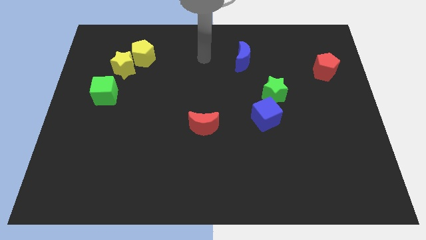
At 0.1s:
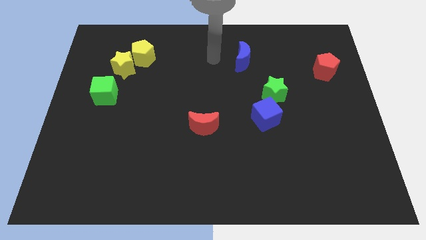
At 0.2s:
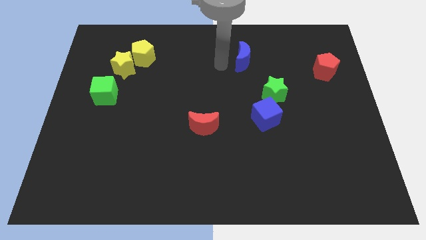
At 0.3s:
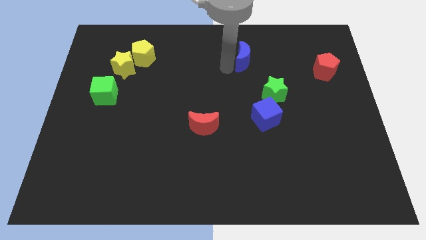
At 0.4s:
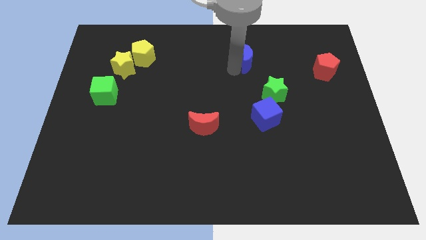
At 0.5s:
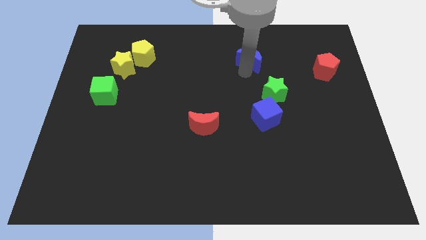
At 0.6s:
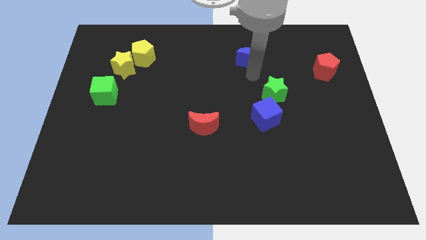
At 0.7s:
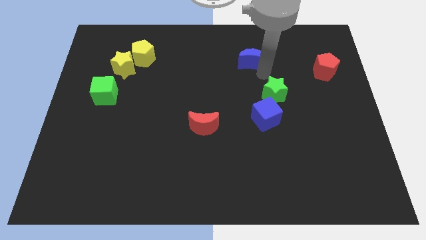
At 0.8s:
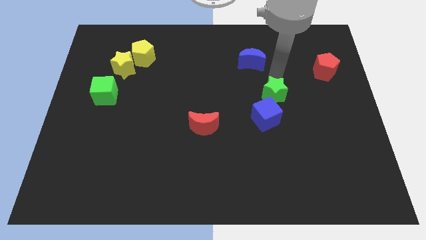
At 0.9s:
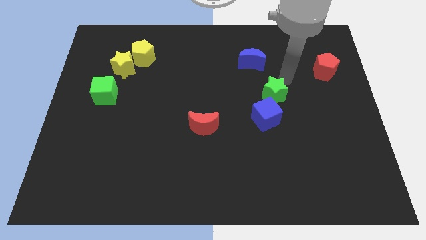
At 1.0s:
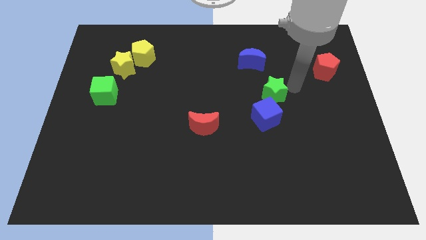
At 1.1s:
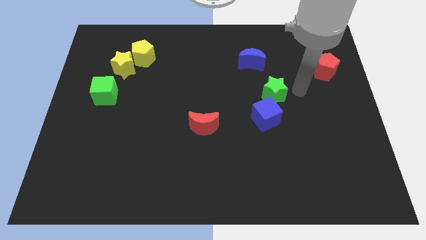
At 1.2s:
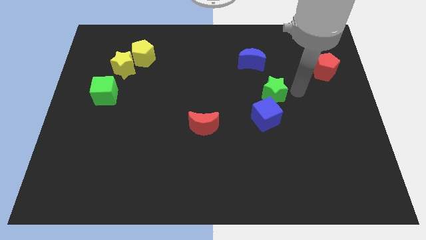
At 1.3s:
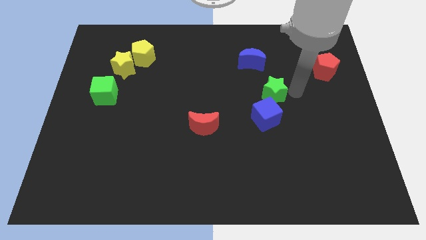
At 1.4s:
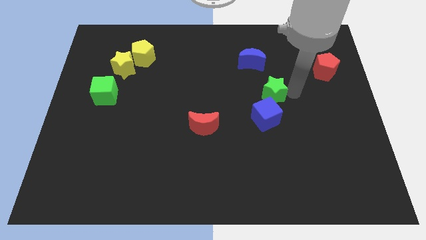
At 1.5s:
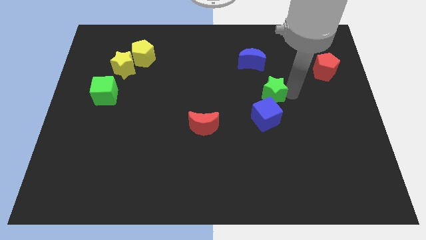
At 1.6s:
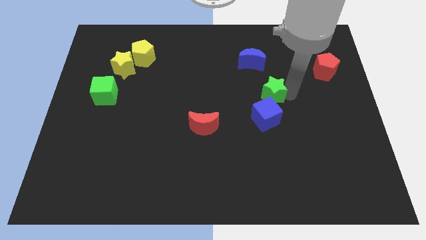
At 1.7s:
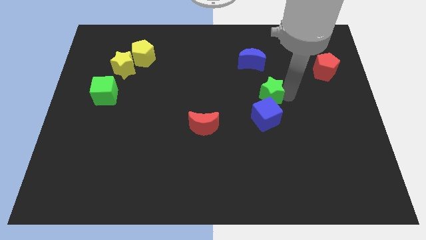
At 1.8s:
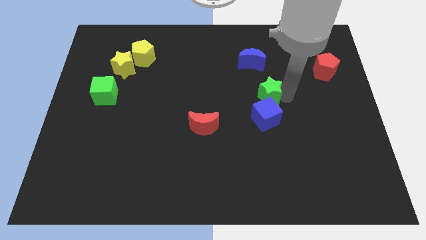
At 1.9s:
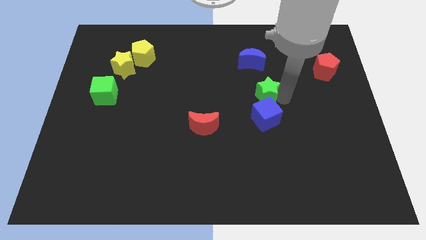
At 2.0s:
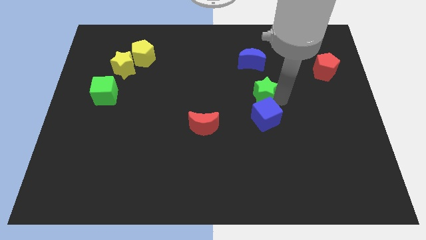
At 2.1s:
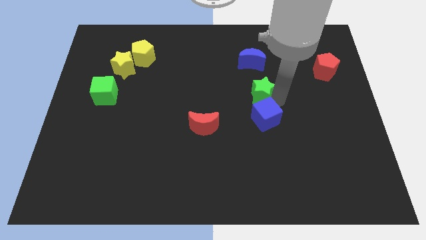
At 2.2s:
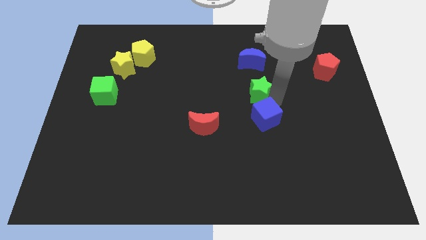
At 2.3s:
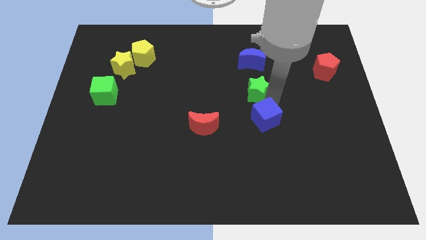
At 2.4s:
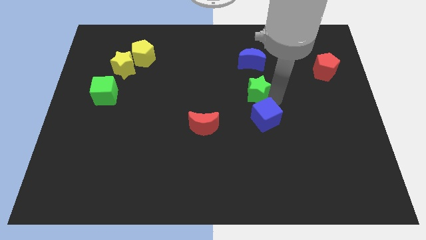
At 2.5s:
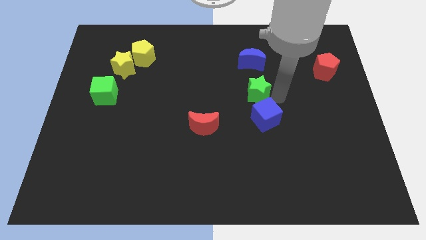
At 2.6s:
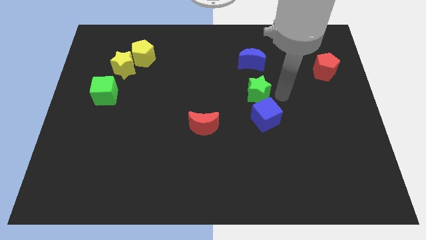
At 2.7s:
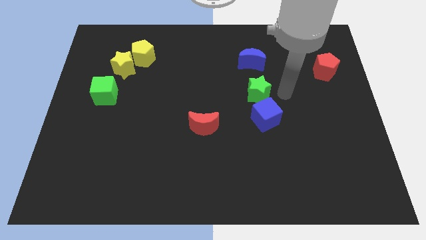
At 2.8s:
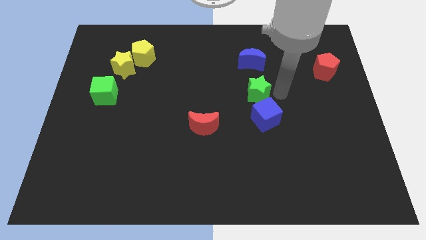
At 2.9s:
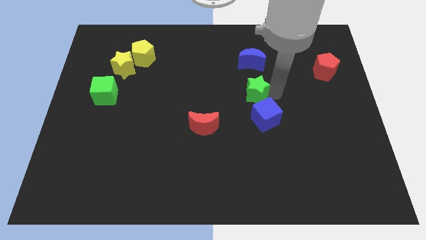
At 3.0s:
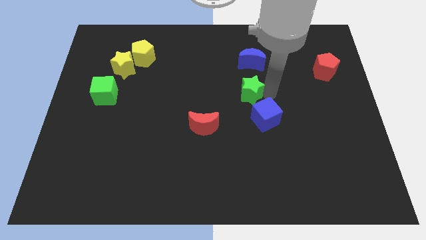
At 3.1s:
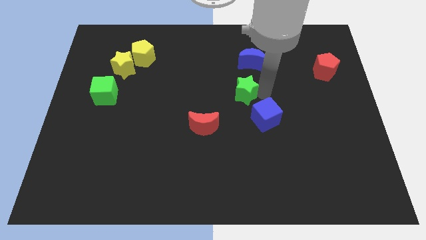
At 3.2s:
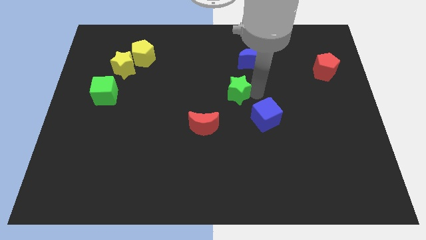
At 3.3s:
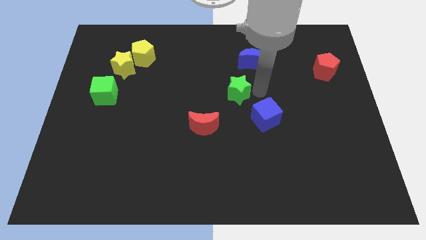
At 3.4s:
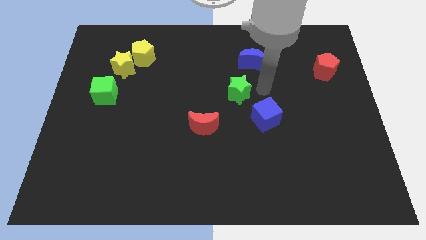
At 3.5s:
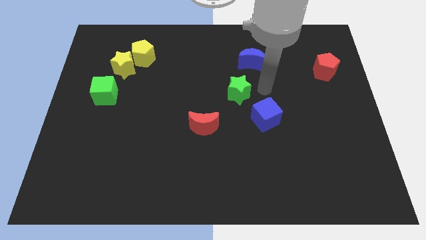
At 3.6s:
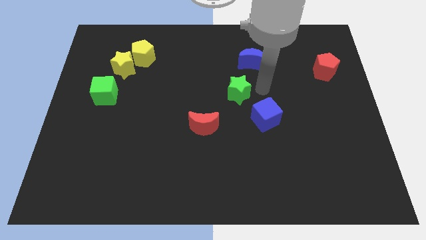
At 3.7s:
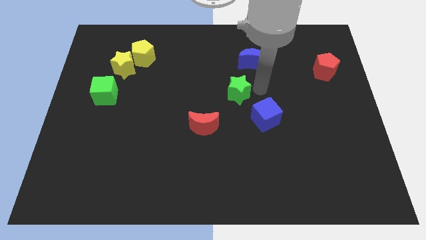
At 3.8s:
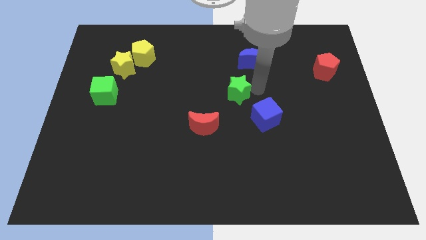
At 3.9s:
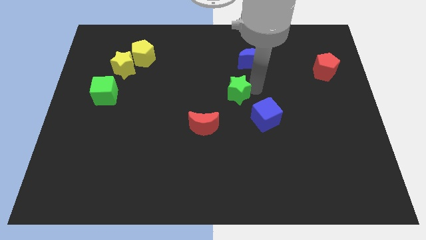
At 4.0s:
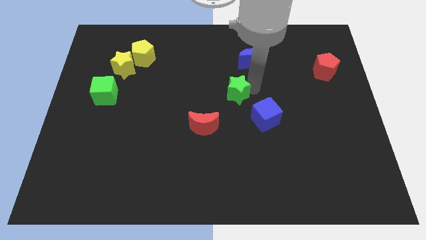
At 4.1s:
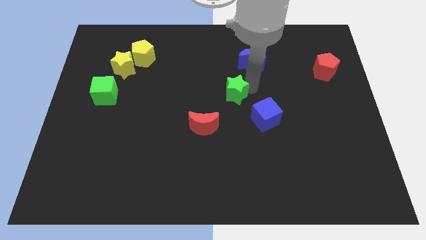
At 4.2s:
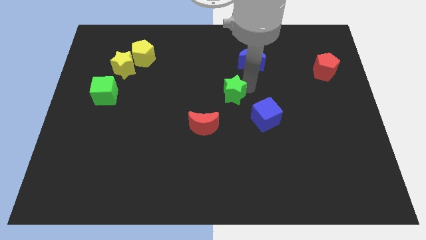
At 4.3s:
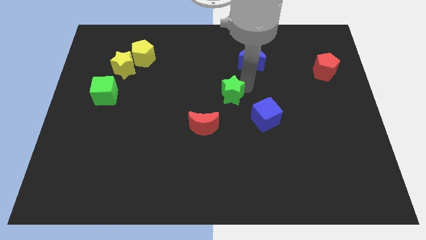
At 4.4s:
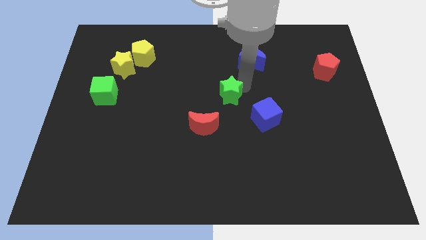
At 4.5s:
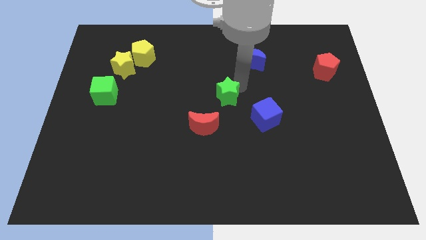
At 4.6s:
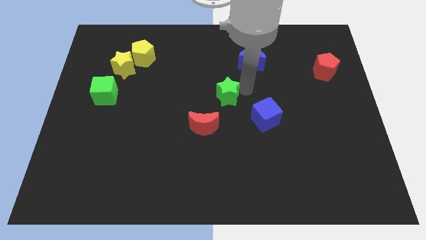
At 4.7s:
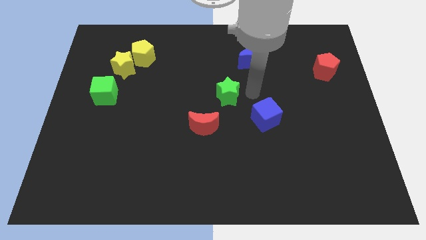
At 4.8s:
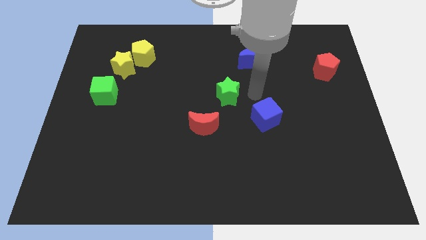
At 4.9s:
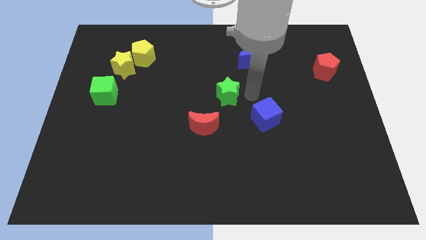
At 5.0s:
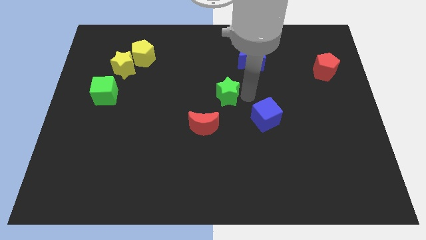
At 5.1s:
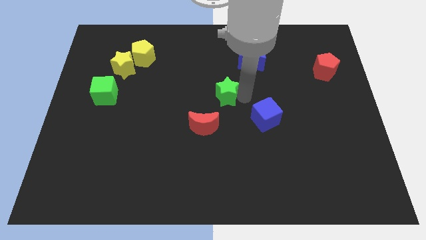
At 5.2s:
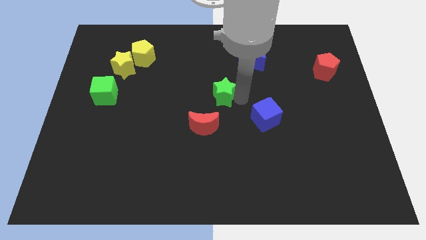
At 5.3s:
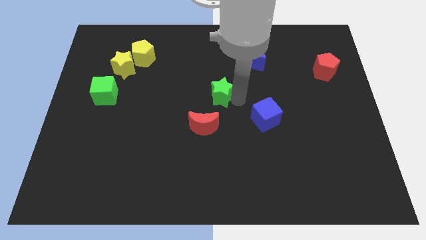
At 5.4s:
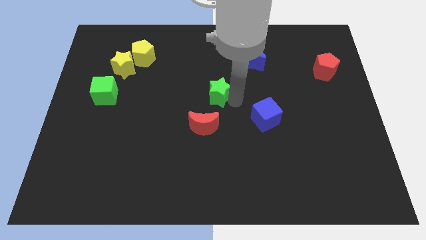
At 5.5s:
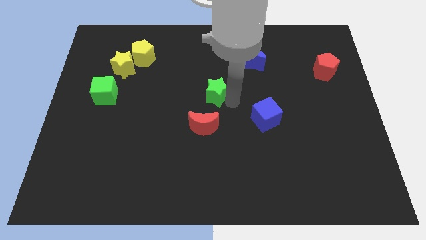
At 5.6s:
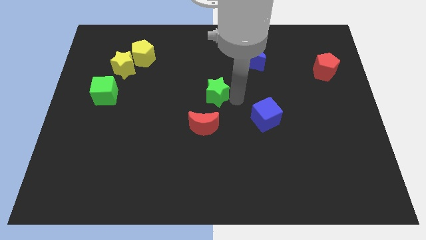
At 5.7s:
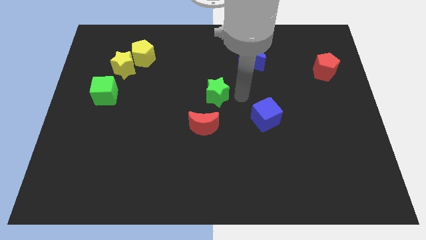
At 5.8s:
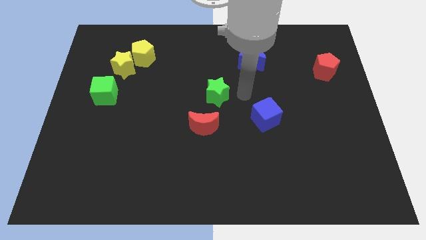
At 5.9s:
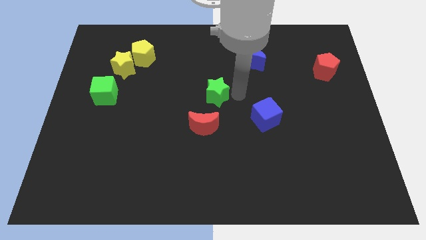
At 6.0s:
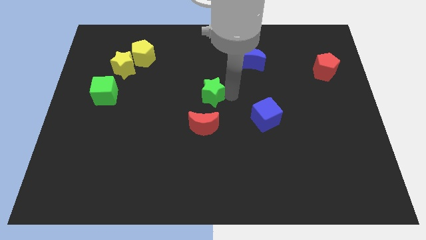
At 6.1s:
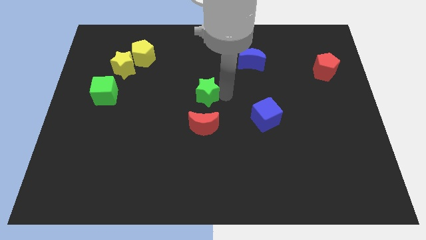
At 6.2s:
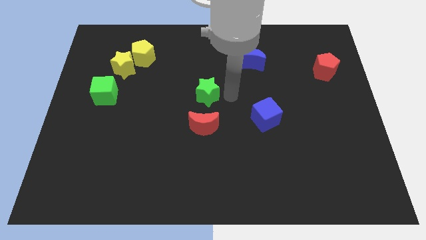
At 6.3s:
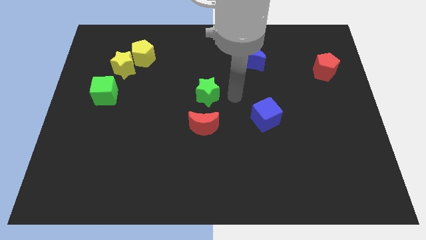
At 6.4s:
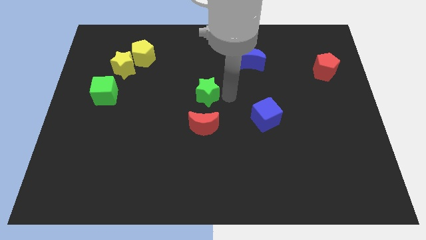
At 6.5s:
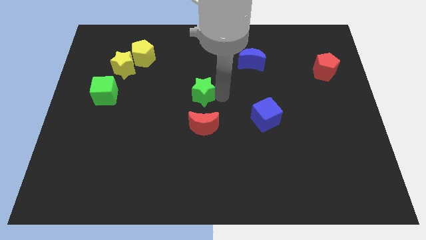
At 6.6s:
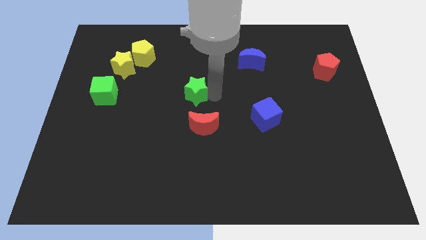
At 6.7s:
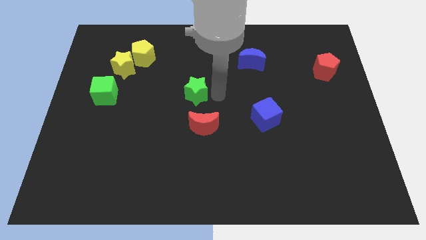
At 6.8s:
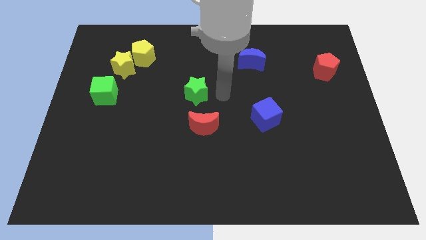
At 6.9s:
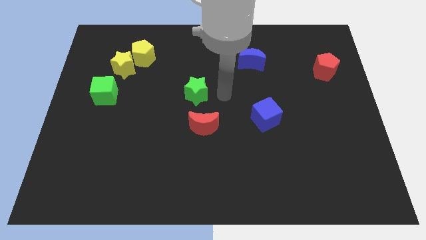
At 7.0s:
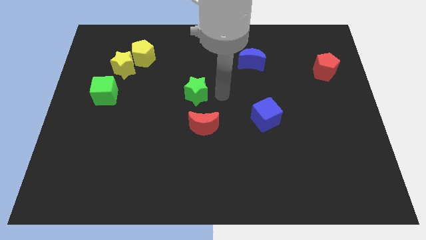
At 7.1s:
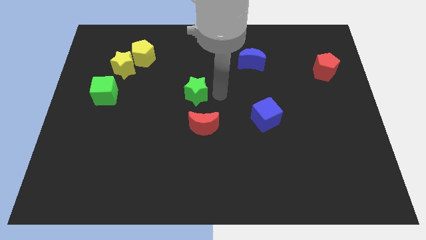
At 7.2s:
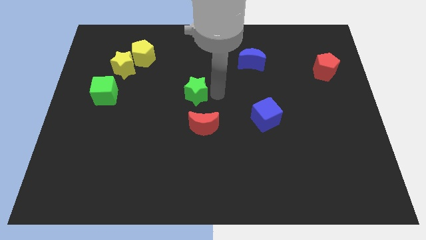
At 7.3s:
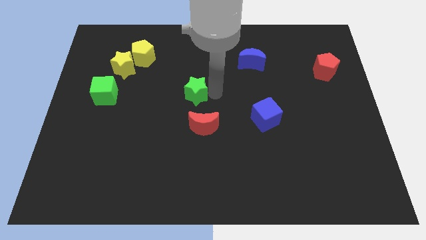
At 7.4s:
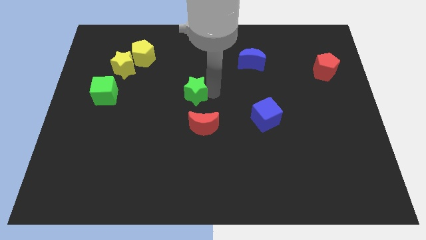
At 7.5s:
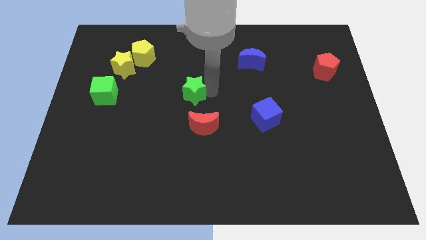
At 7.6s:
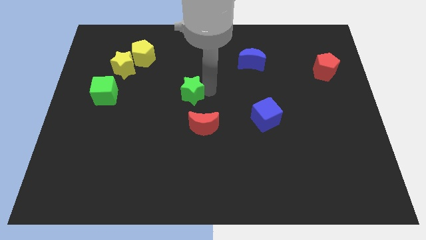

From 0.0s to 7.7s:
slide the green star left

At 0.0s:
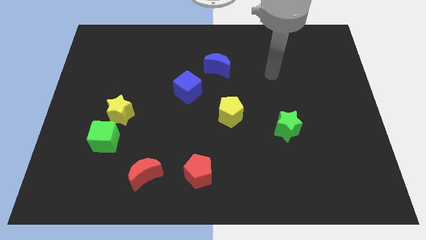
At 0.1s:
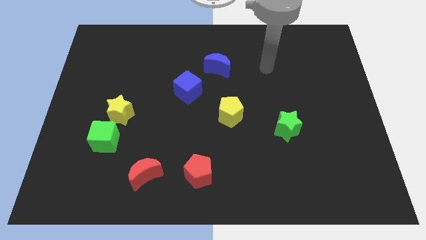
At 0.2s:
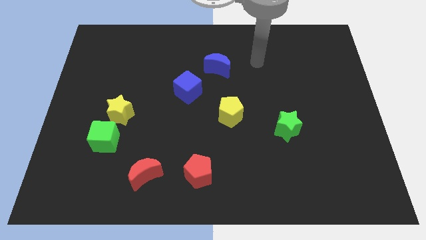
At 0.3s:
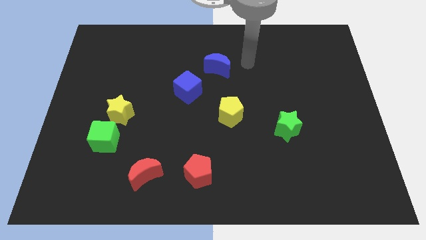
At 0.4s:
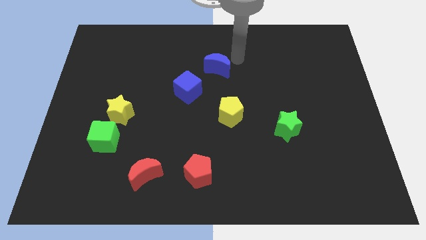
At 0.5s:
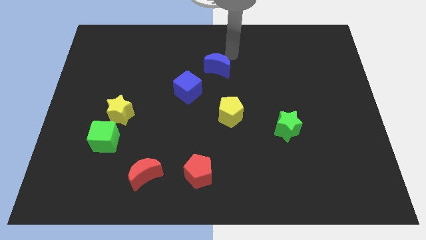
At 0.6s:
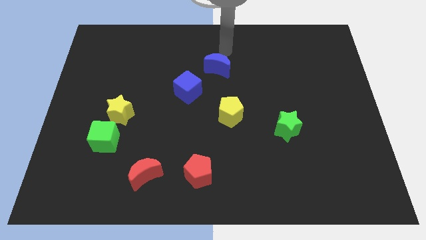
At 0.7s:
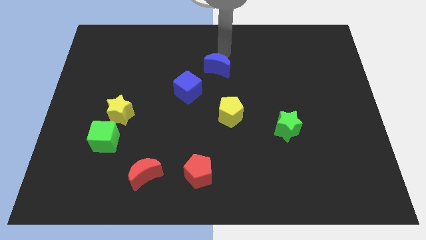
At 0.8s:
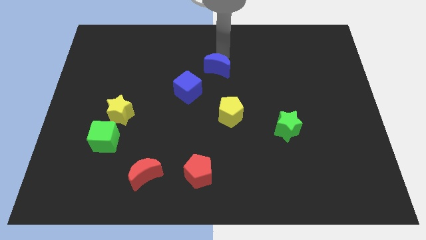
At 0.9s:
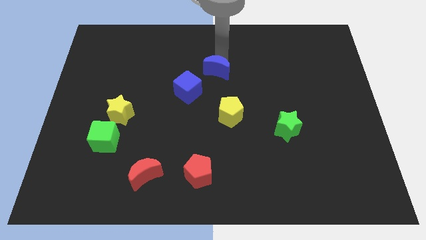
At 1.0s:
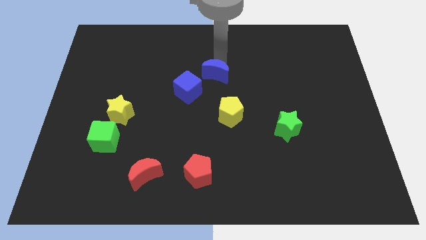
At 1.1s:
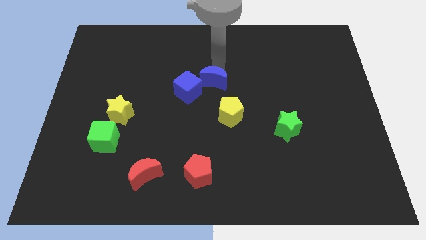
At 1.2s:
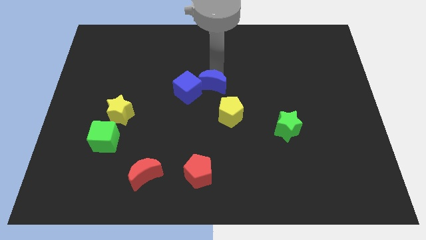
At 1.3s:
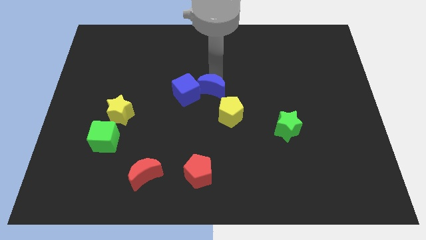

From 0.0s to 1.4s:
push the blue moon a little downwards
